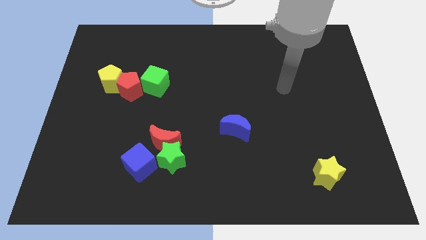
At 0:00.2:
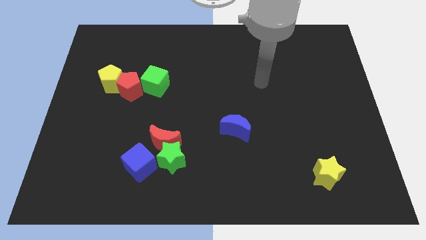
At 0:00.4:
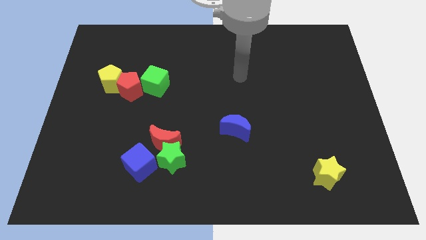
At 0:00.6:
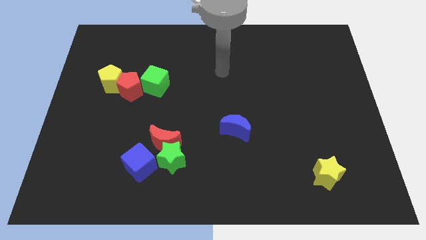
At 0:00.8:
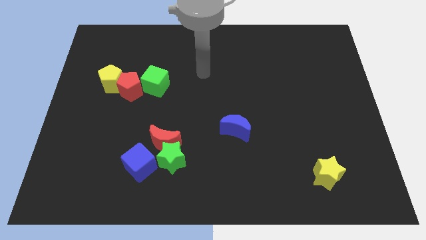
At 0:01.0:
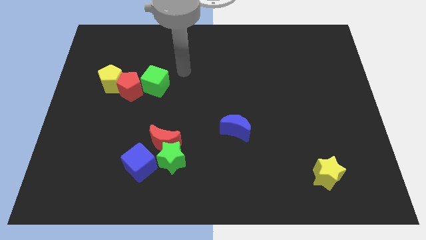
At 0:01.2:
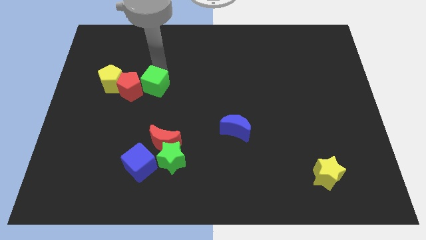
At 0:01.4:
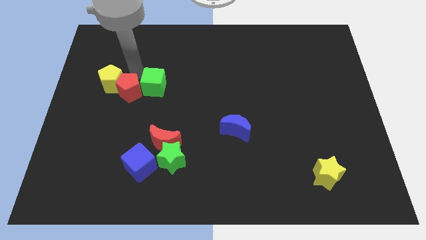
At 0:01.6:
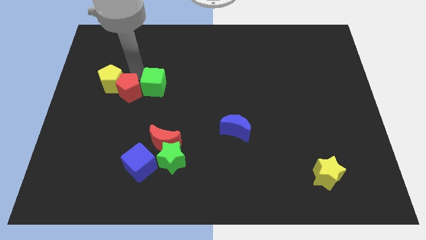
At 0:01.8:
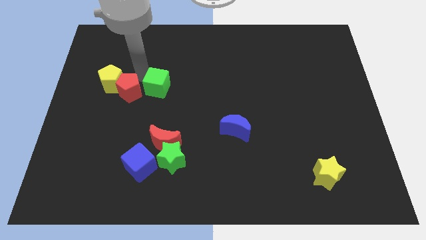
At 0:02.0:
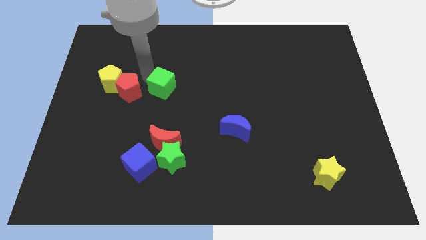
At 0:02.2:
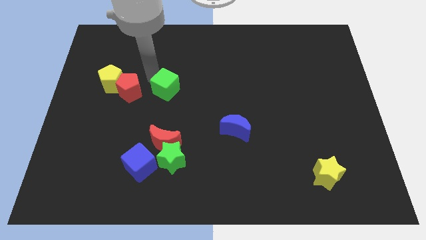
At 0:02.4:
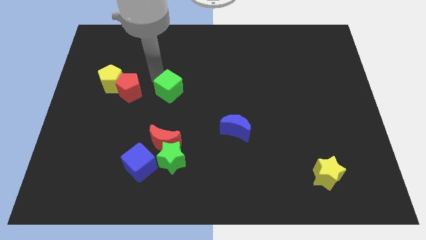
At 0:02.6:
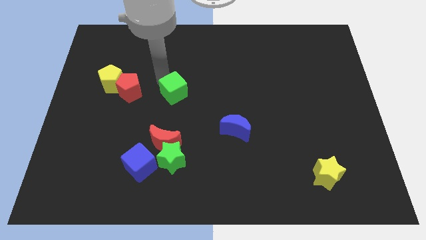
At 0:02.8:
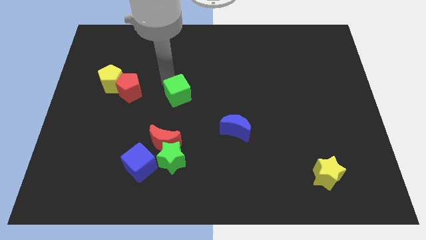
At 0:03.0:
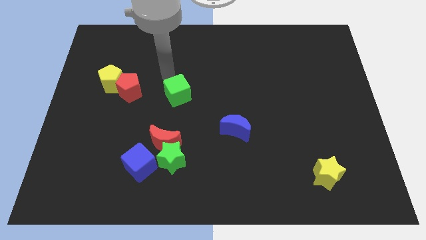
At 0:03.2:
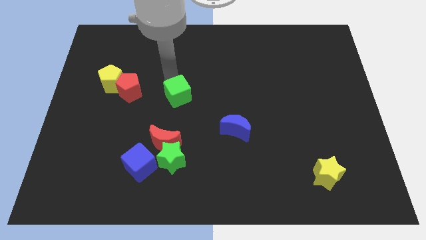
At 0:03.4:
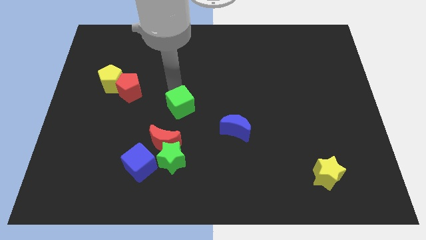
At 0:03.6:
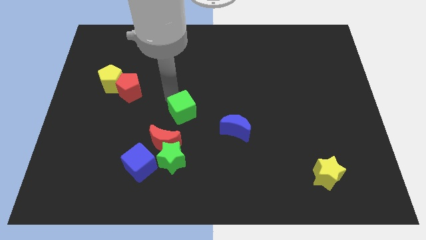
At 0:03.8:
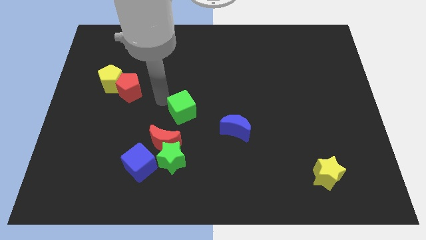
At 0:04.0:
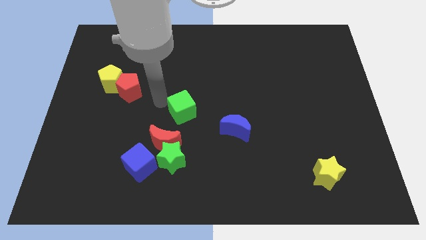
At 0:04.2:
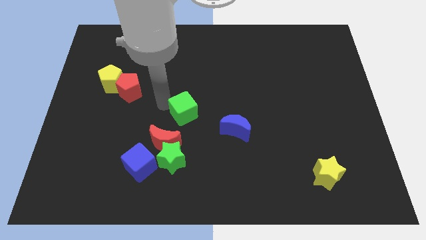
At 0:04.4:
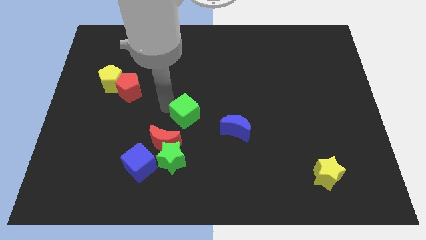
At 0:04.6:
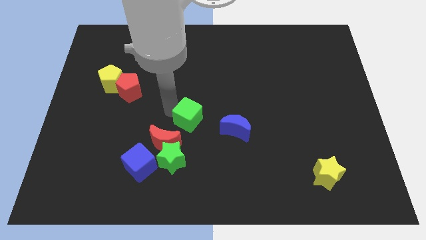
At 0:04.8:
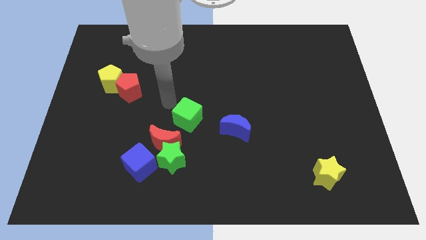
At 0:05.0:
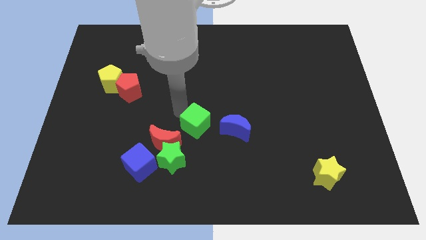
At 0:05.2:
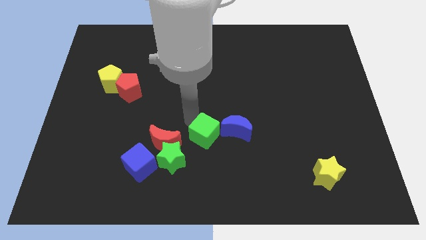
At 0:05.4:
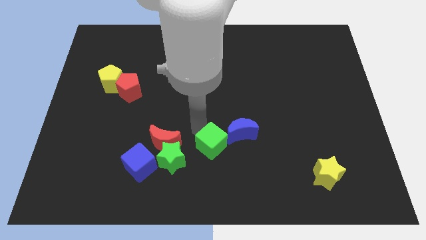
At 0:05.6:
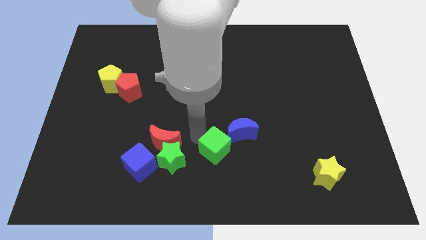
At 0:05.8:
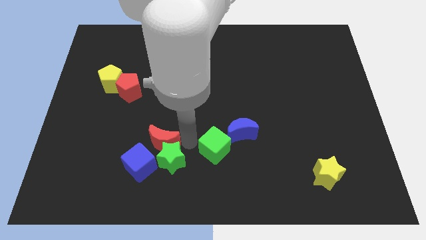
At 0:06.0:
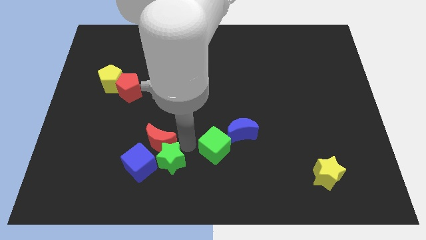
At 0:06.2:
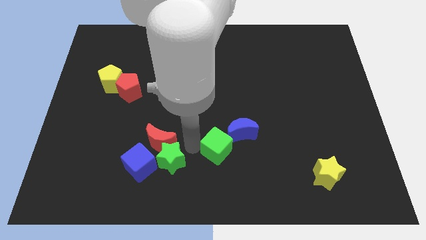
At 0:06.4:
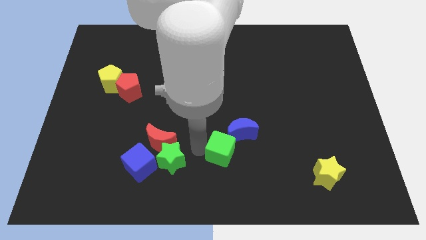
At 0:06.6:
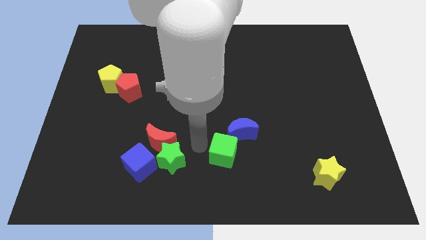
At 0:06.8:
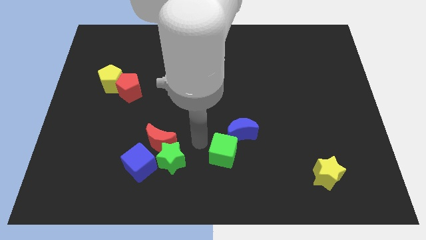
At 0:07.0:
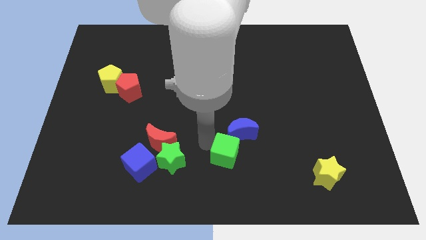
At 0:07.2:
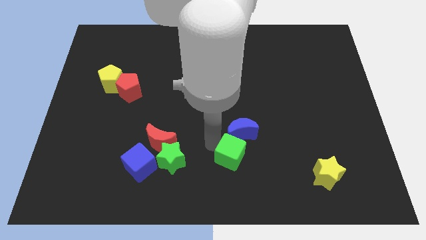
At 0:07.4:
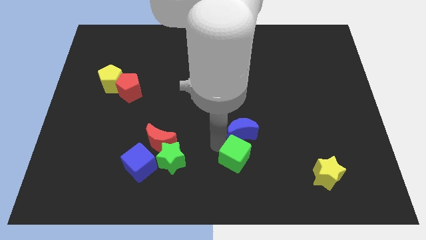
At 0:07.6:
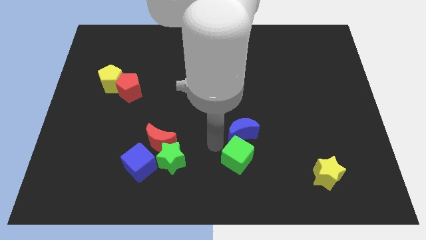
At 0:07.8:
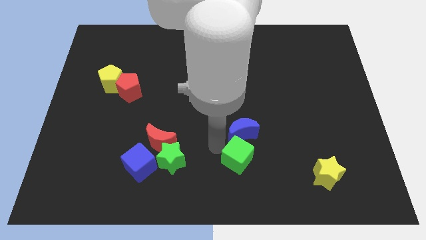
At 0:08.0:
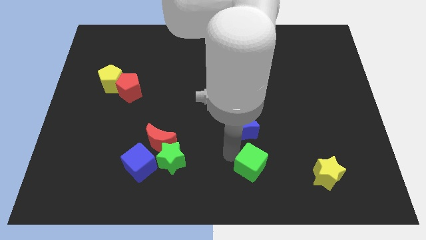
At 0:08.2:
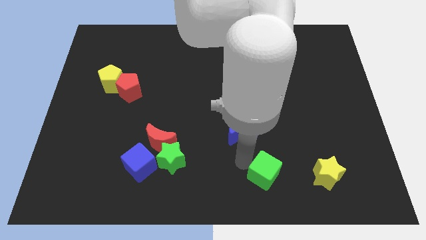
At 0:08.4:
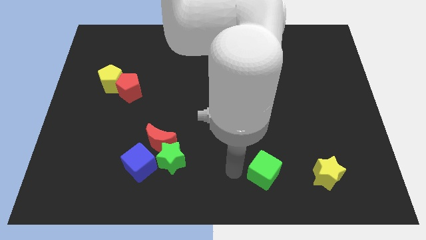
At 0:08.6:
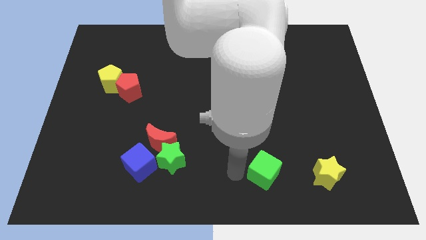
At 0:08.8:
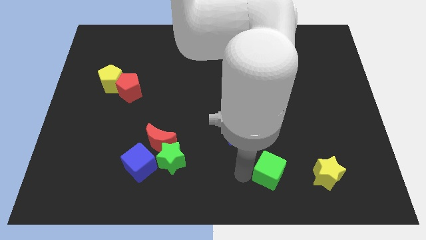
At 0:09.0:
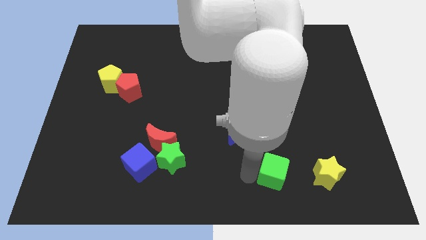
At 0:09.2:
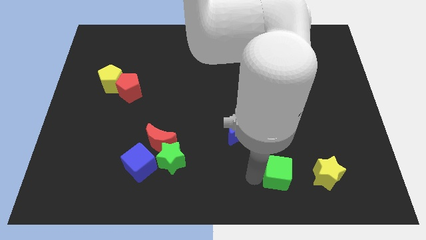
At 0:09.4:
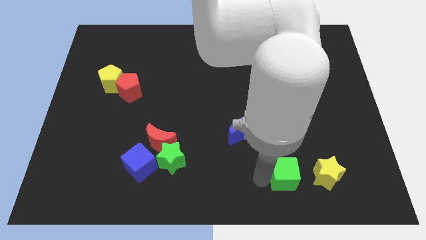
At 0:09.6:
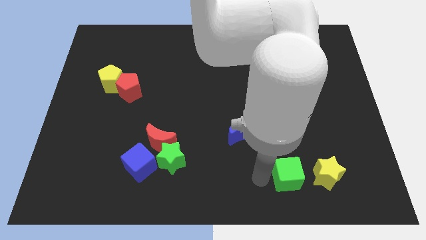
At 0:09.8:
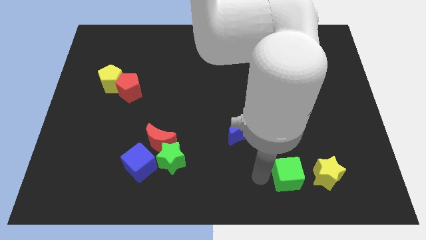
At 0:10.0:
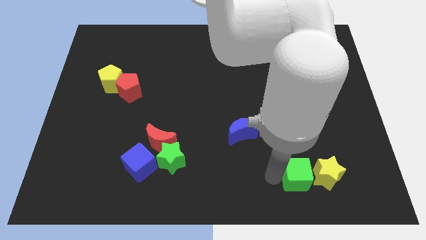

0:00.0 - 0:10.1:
slide the green cube next to the yellow star

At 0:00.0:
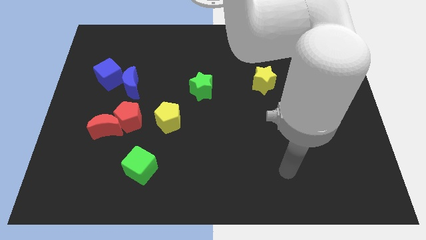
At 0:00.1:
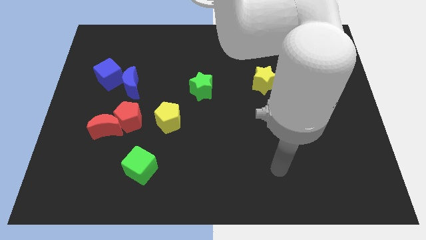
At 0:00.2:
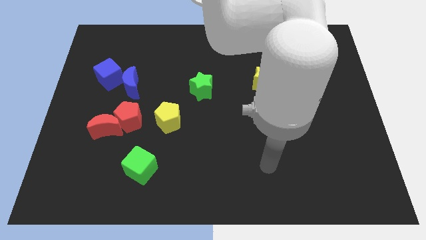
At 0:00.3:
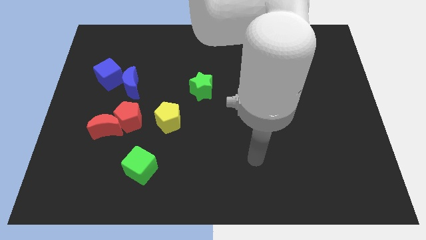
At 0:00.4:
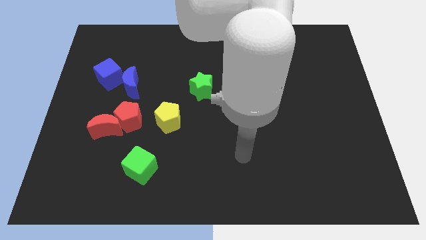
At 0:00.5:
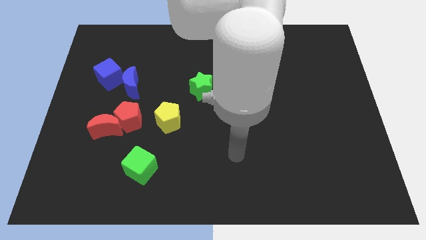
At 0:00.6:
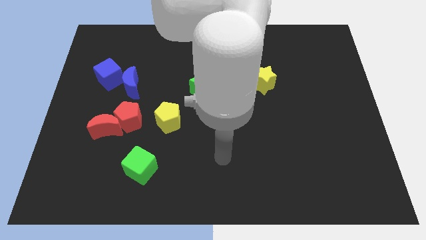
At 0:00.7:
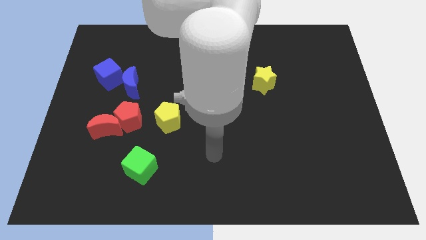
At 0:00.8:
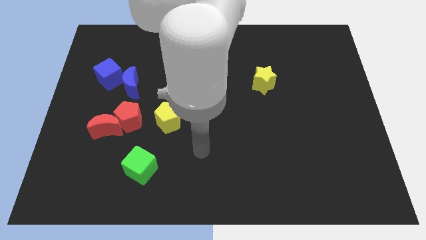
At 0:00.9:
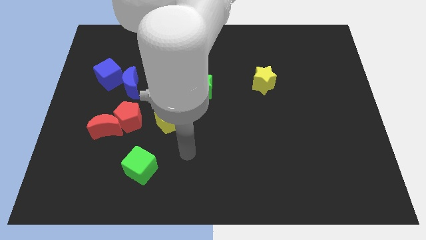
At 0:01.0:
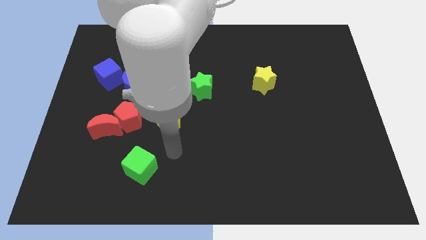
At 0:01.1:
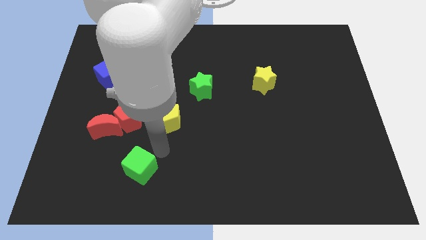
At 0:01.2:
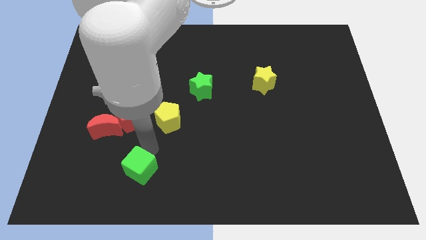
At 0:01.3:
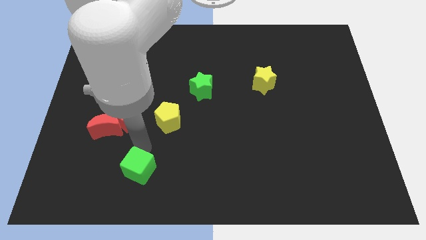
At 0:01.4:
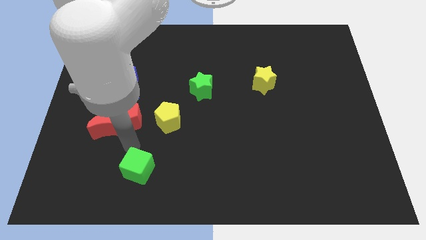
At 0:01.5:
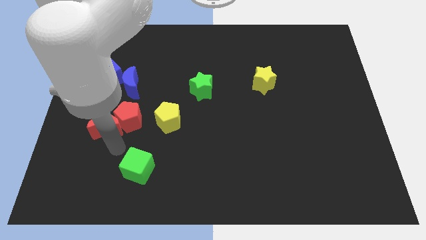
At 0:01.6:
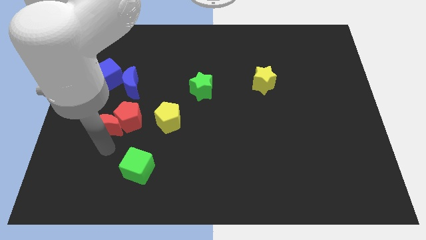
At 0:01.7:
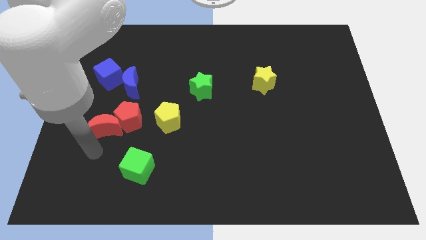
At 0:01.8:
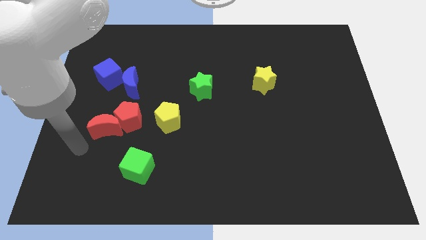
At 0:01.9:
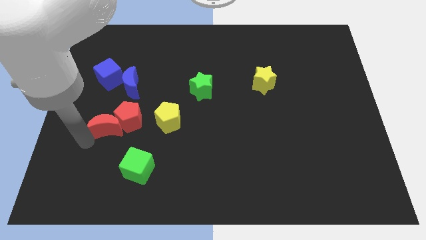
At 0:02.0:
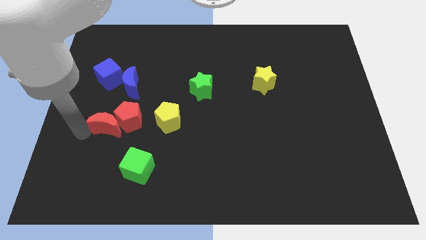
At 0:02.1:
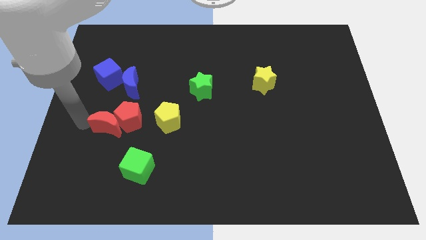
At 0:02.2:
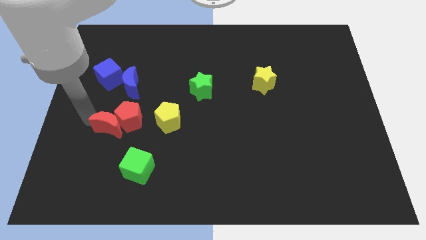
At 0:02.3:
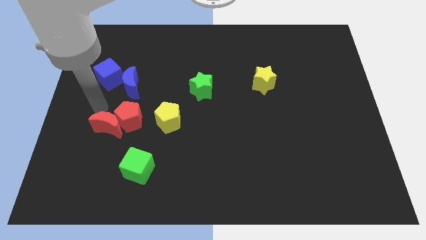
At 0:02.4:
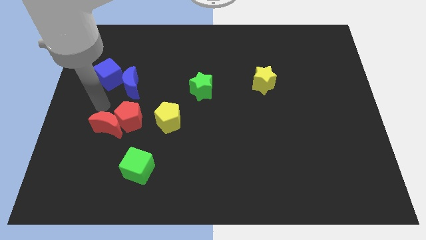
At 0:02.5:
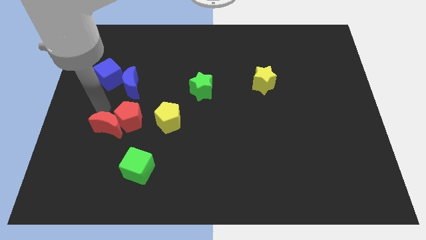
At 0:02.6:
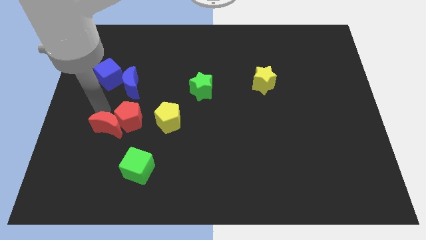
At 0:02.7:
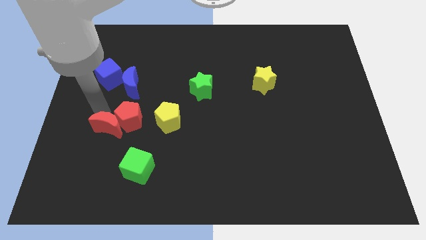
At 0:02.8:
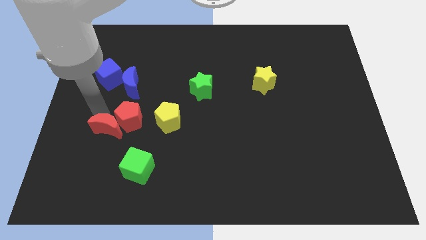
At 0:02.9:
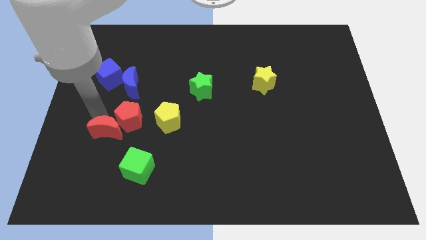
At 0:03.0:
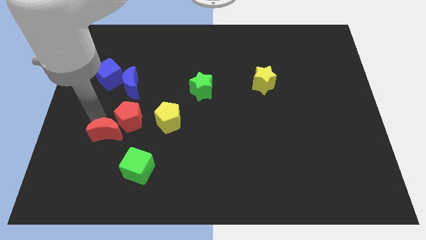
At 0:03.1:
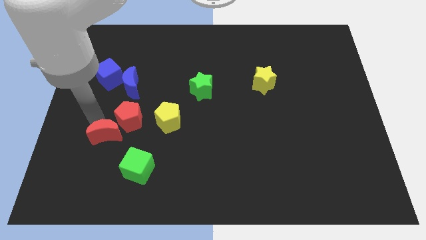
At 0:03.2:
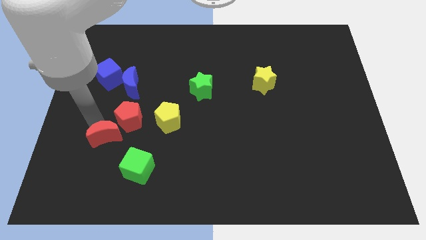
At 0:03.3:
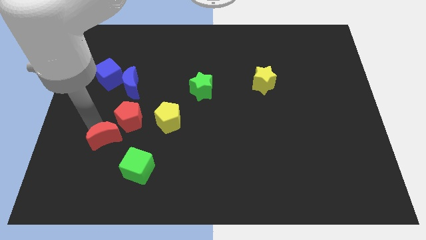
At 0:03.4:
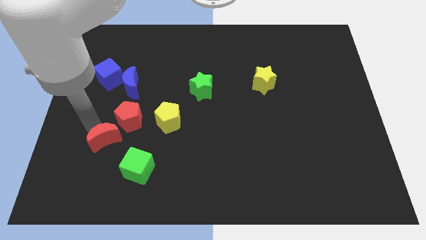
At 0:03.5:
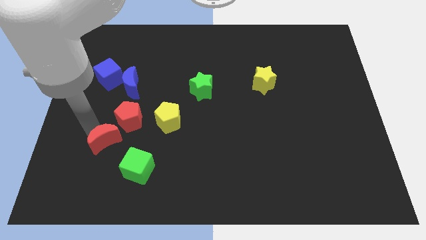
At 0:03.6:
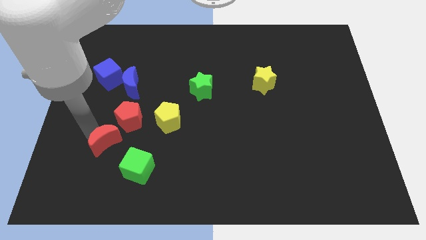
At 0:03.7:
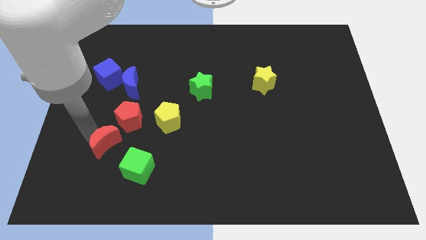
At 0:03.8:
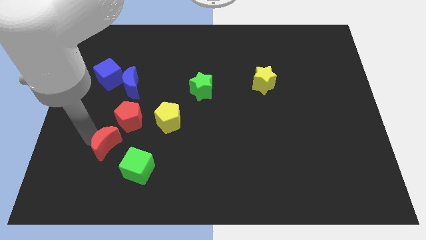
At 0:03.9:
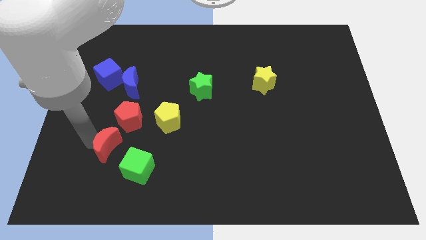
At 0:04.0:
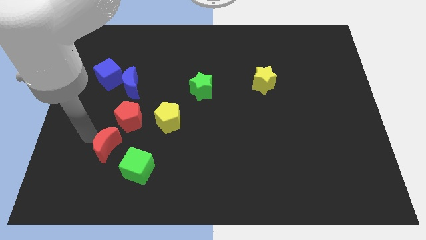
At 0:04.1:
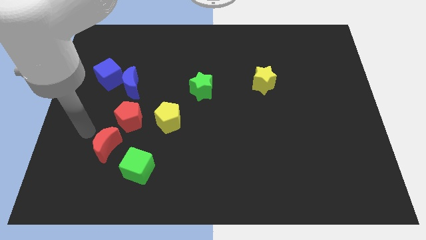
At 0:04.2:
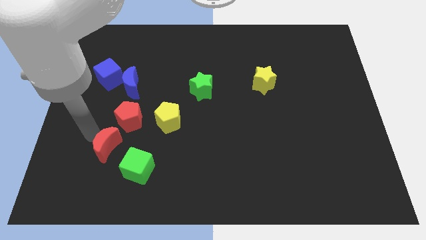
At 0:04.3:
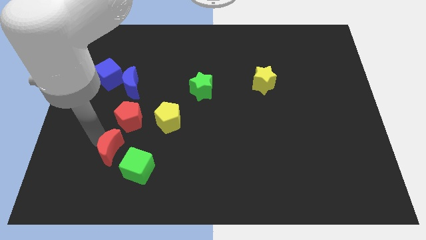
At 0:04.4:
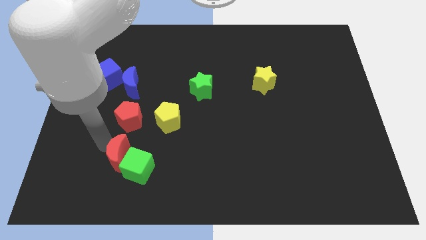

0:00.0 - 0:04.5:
move the red moon to the green cube
